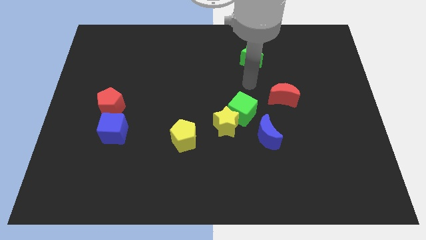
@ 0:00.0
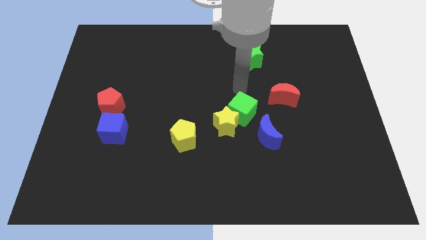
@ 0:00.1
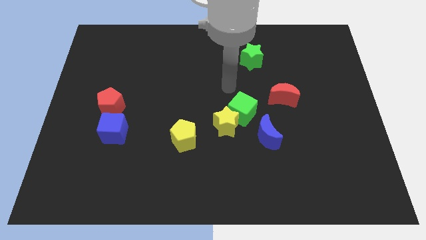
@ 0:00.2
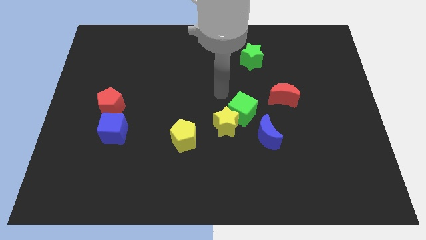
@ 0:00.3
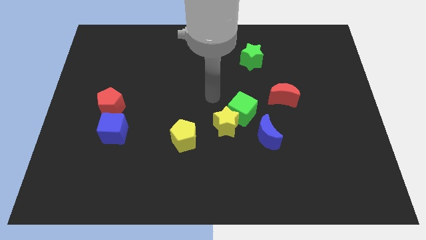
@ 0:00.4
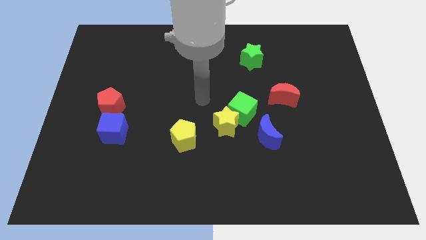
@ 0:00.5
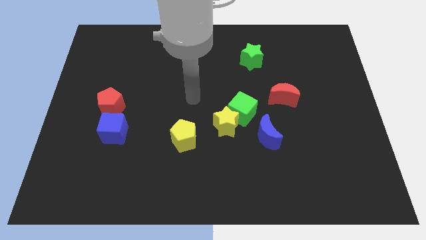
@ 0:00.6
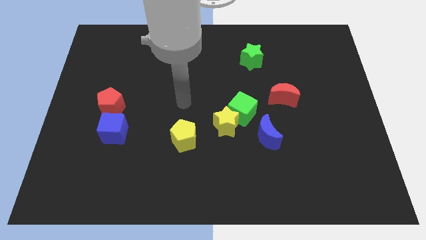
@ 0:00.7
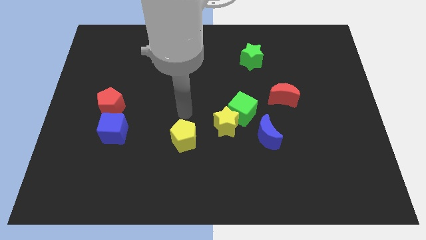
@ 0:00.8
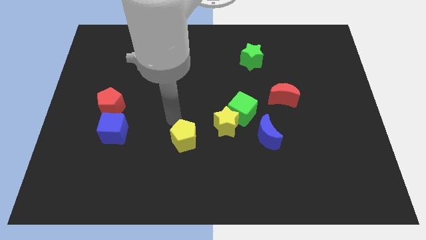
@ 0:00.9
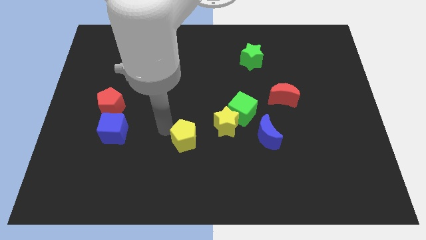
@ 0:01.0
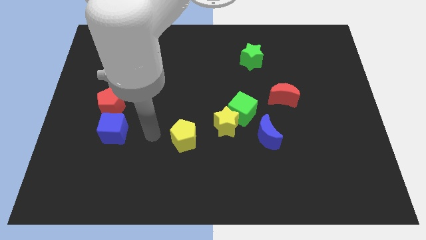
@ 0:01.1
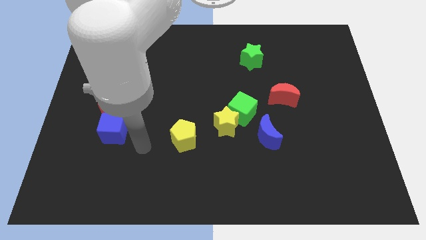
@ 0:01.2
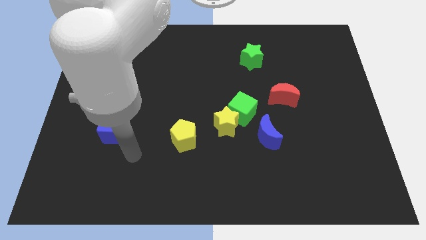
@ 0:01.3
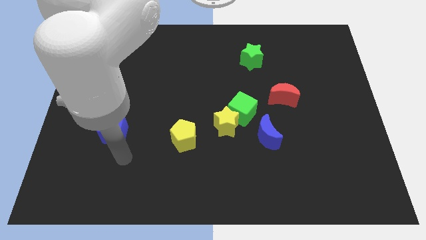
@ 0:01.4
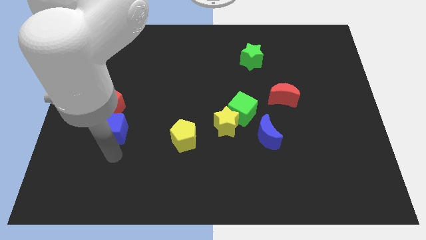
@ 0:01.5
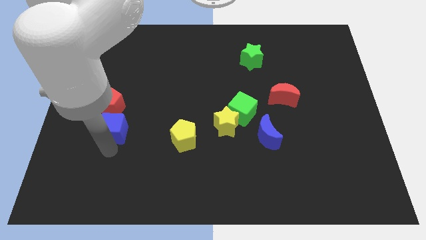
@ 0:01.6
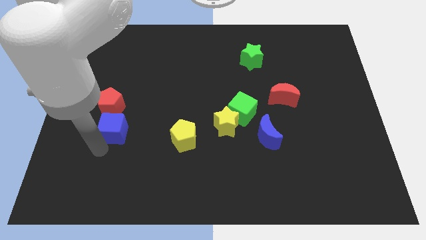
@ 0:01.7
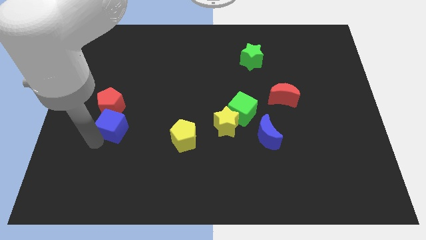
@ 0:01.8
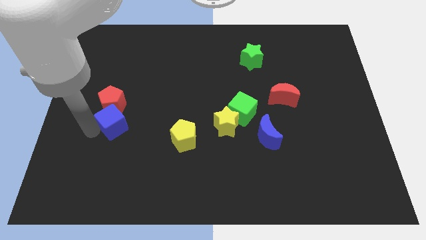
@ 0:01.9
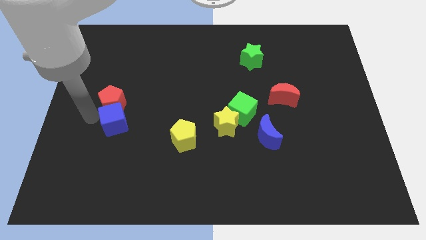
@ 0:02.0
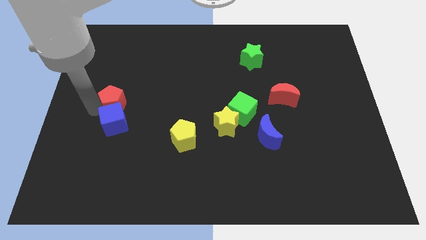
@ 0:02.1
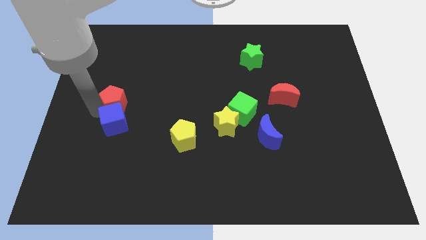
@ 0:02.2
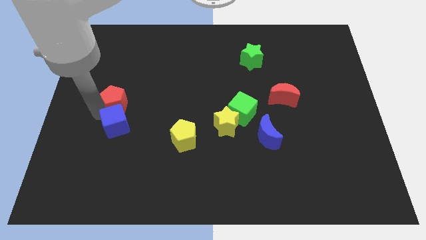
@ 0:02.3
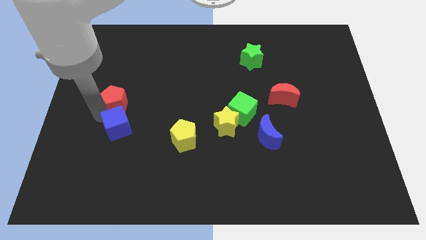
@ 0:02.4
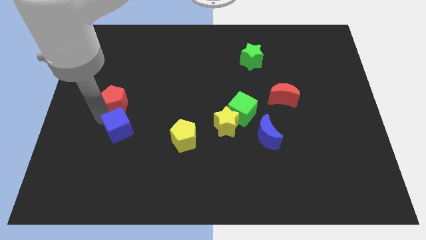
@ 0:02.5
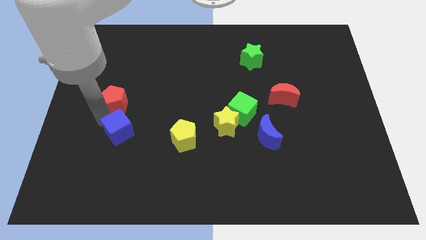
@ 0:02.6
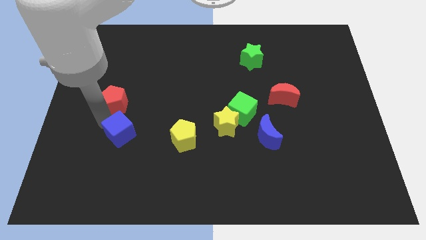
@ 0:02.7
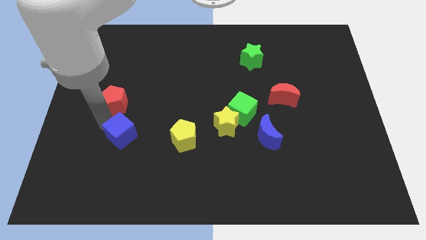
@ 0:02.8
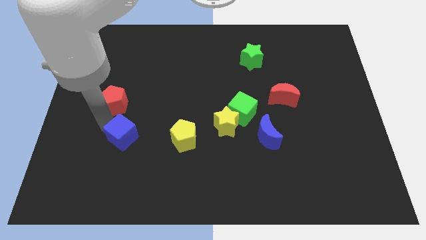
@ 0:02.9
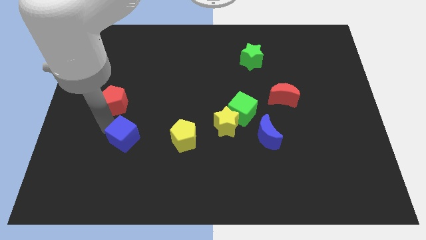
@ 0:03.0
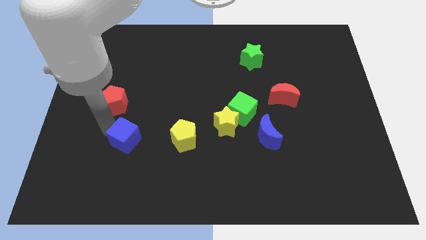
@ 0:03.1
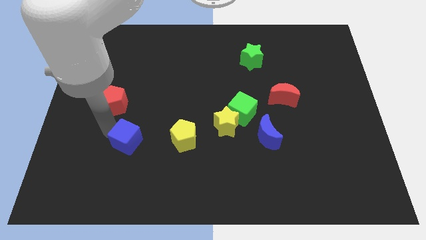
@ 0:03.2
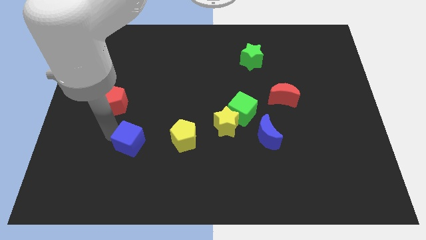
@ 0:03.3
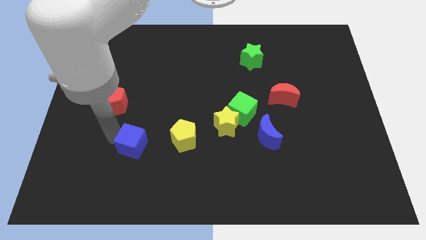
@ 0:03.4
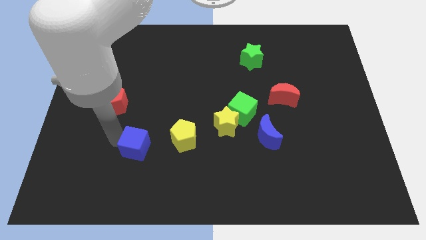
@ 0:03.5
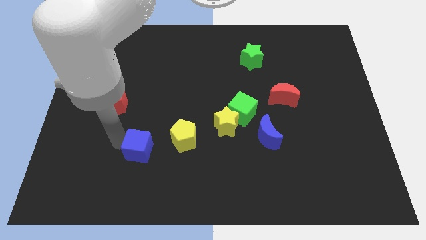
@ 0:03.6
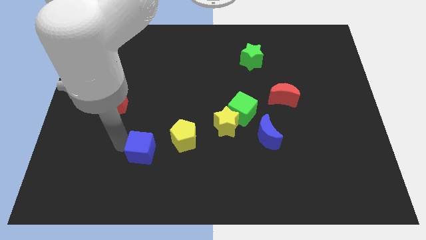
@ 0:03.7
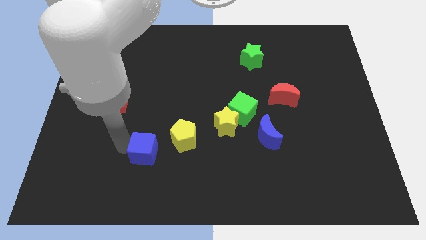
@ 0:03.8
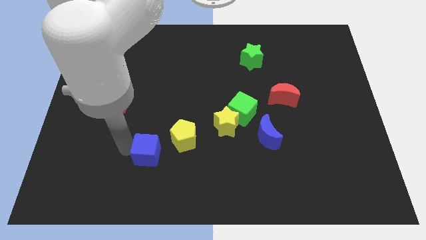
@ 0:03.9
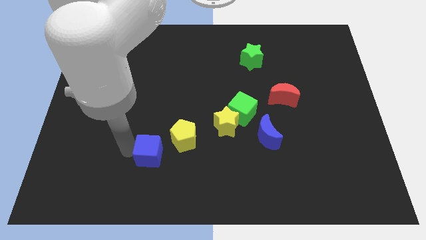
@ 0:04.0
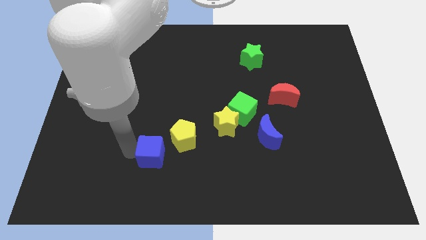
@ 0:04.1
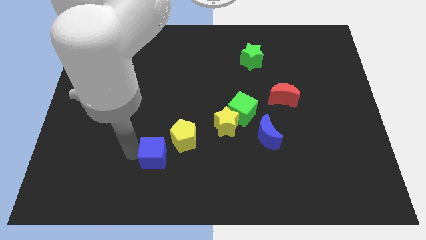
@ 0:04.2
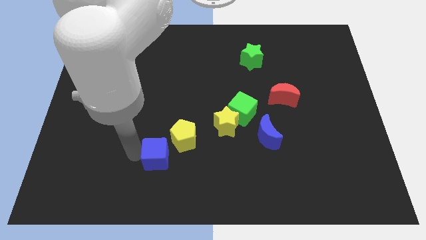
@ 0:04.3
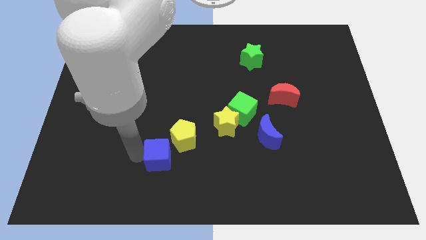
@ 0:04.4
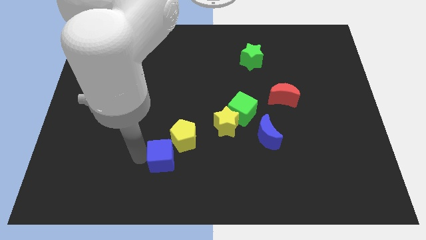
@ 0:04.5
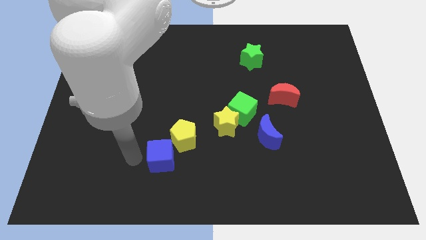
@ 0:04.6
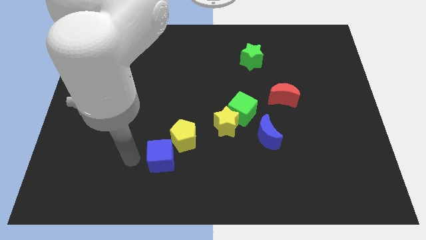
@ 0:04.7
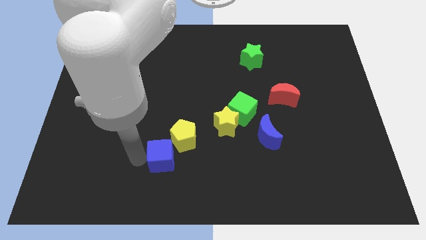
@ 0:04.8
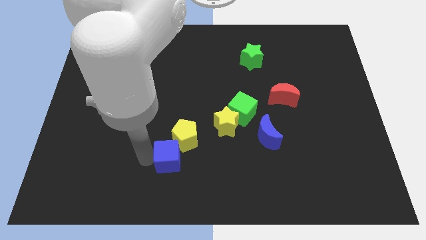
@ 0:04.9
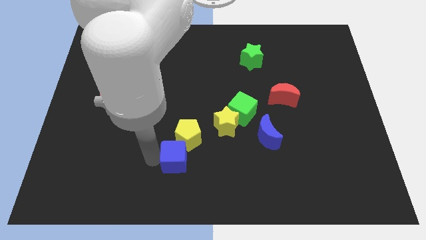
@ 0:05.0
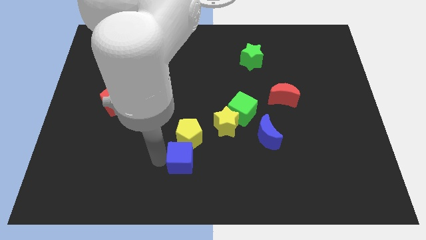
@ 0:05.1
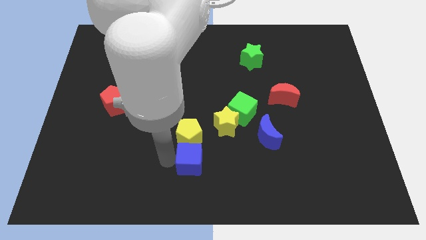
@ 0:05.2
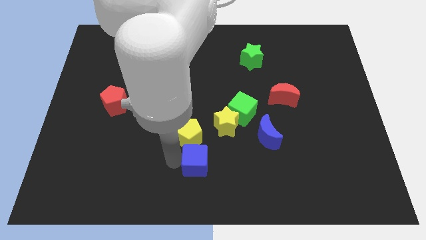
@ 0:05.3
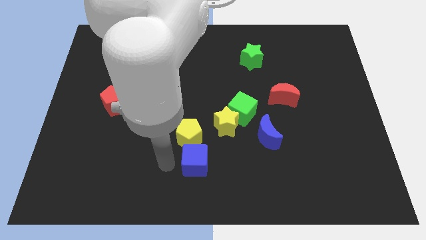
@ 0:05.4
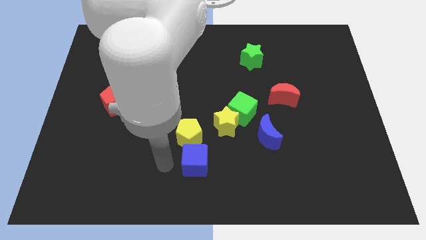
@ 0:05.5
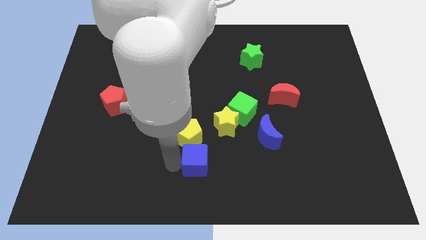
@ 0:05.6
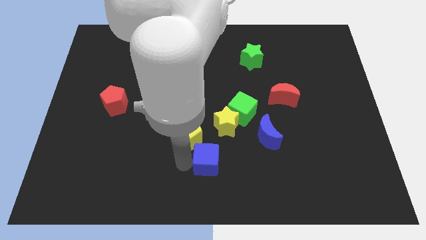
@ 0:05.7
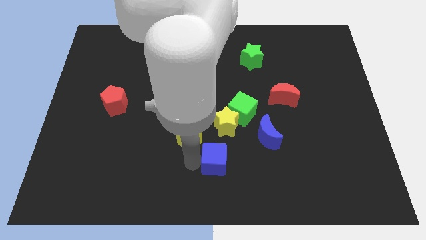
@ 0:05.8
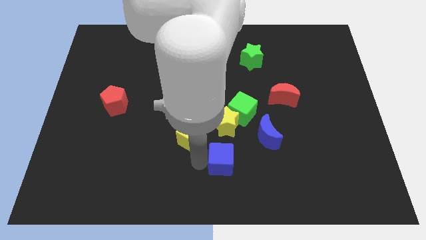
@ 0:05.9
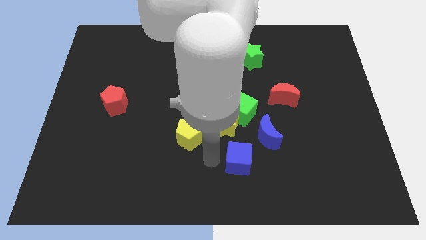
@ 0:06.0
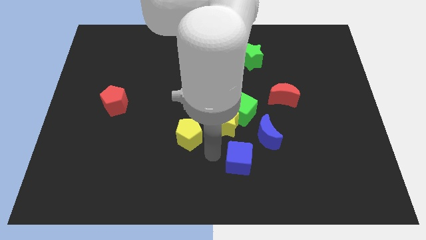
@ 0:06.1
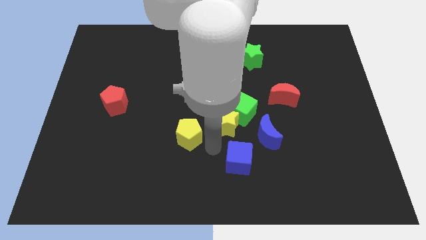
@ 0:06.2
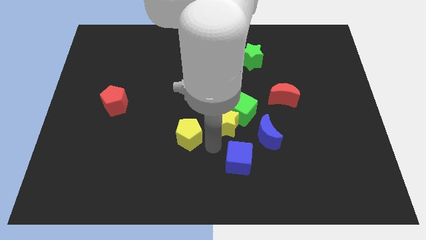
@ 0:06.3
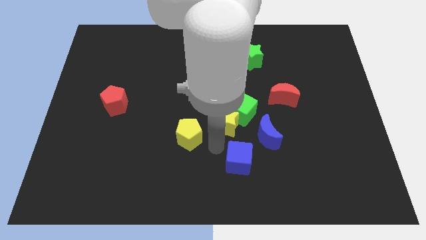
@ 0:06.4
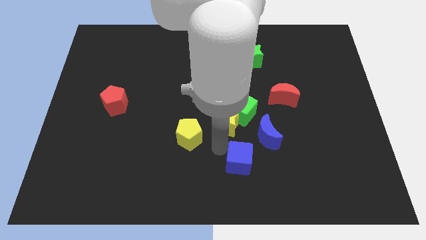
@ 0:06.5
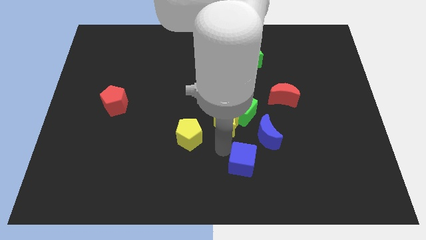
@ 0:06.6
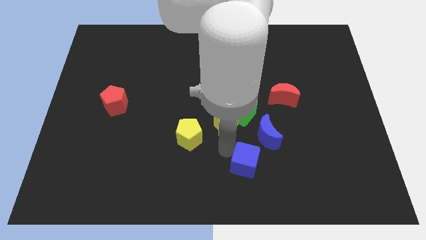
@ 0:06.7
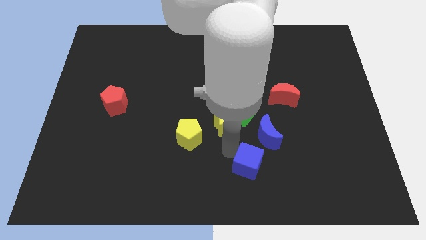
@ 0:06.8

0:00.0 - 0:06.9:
slide the blue cube to the bottom side of the blue moon

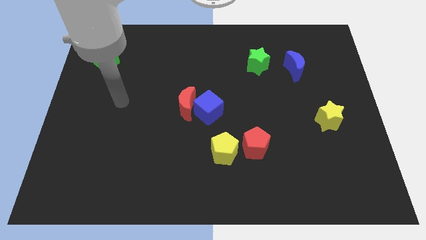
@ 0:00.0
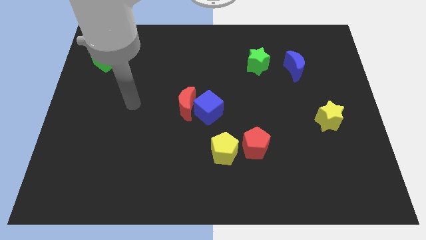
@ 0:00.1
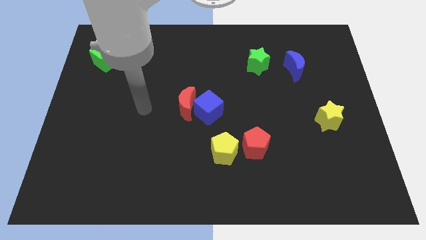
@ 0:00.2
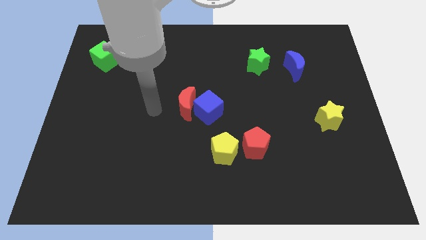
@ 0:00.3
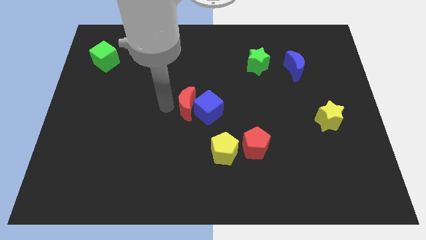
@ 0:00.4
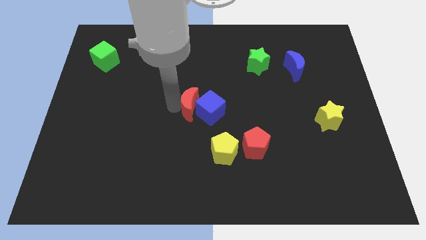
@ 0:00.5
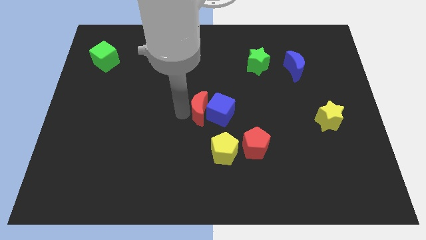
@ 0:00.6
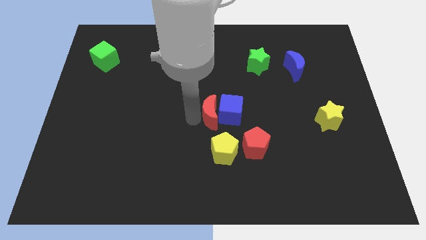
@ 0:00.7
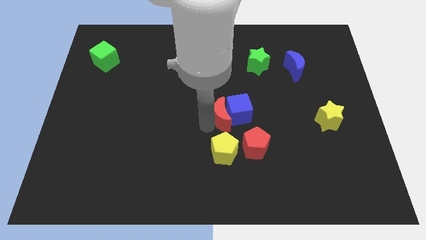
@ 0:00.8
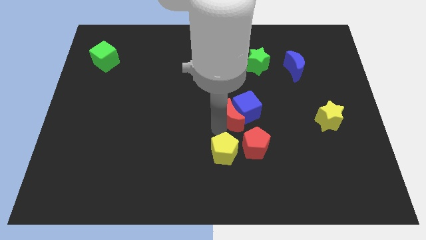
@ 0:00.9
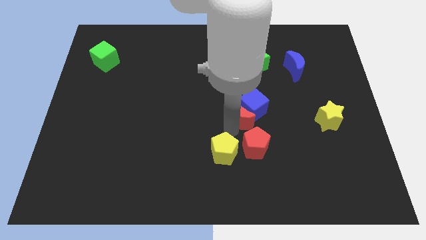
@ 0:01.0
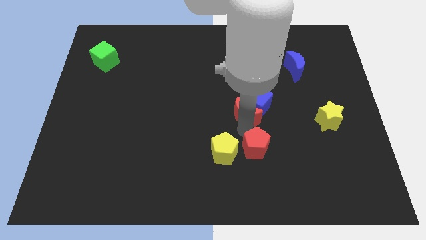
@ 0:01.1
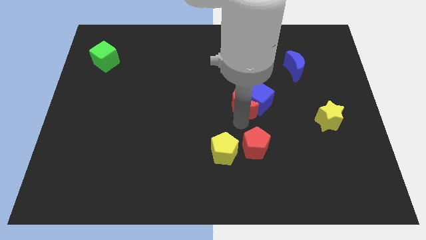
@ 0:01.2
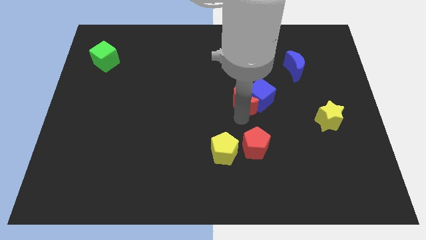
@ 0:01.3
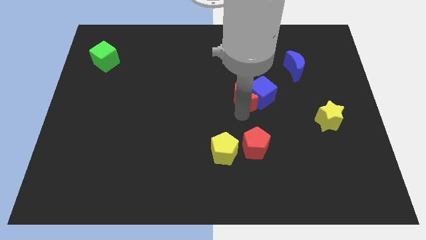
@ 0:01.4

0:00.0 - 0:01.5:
push the blue cube to the bottom left side of the blue moon
